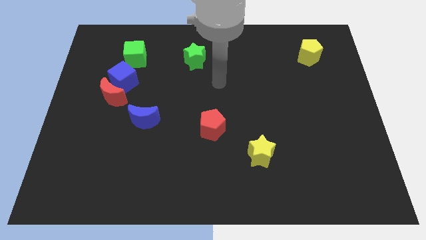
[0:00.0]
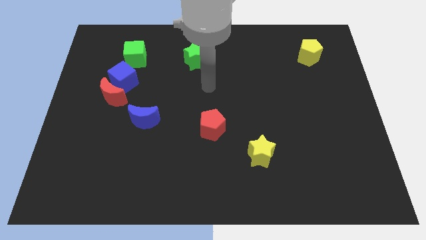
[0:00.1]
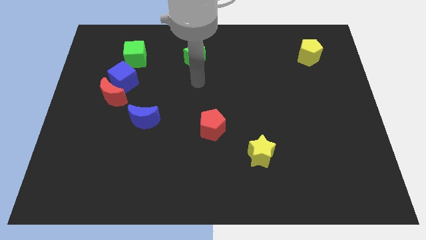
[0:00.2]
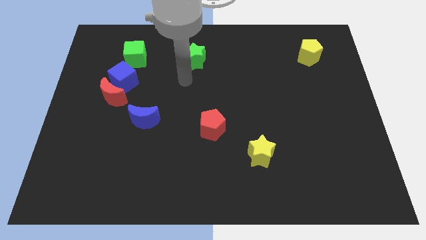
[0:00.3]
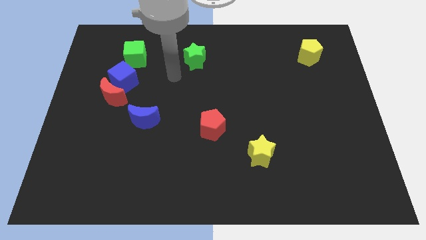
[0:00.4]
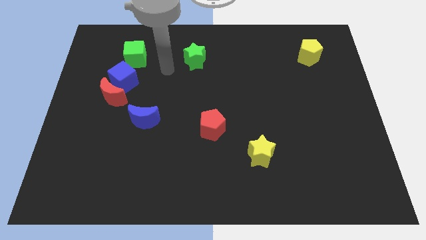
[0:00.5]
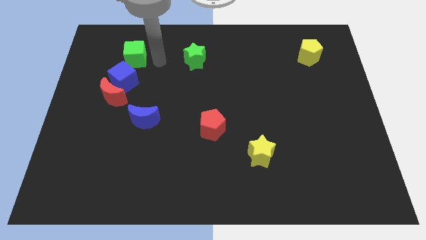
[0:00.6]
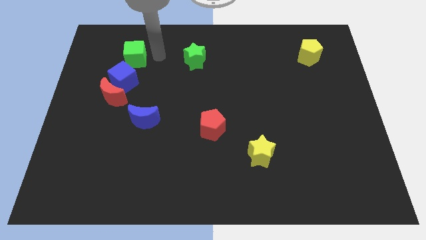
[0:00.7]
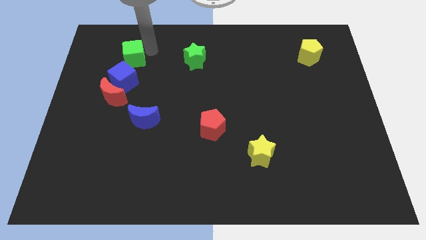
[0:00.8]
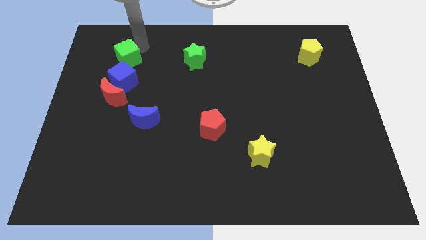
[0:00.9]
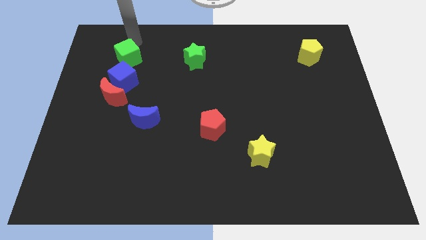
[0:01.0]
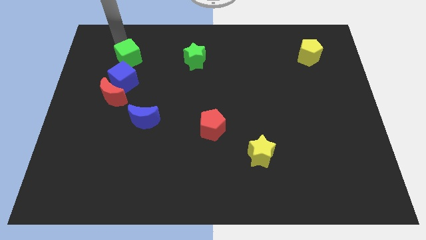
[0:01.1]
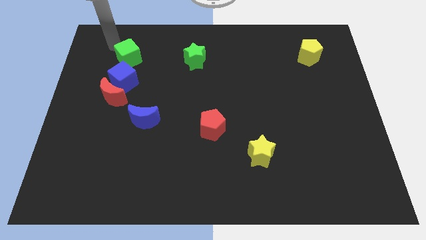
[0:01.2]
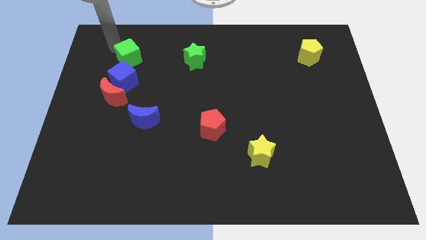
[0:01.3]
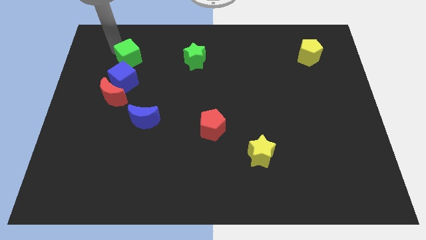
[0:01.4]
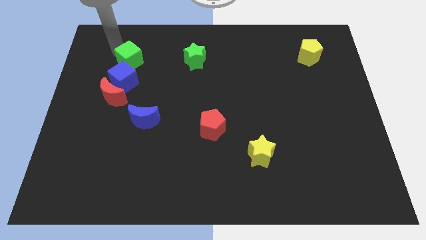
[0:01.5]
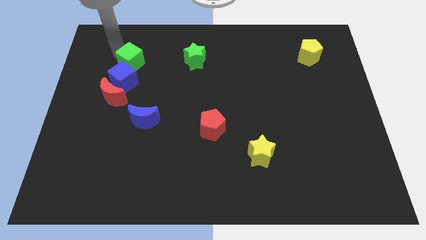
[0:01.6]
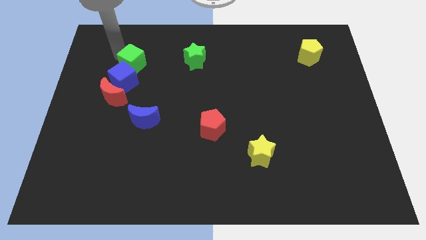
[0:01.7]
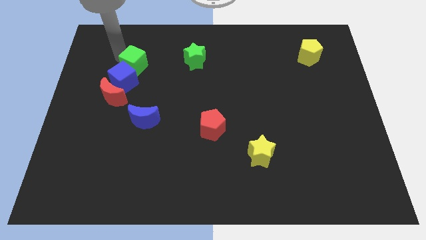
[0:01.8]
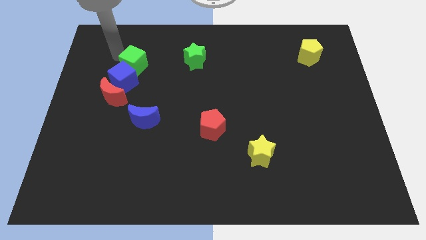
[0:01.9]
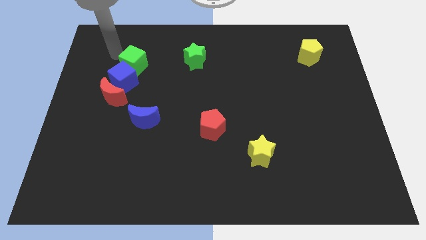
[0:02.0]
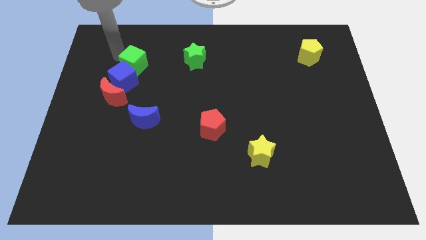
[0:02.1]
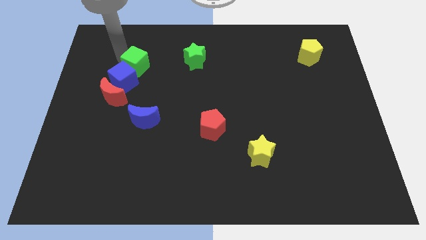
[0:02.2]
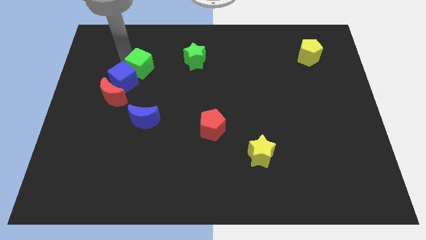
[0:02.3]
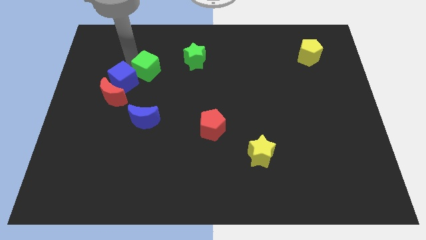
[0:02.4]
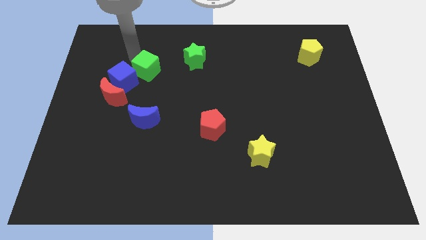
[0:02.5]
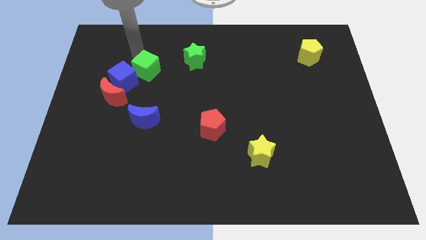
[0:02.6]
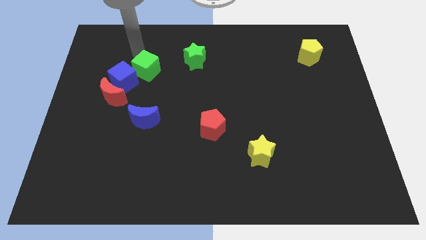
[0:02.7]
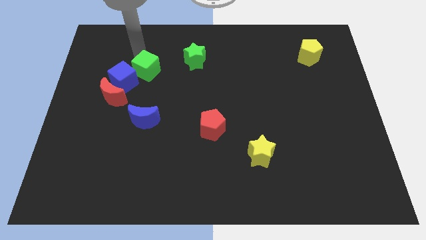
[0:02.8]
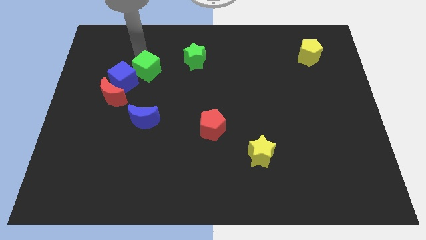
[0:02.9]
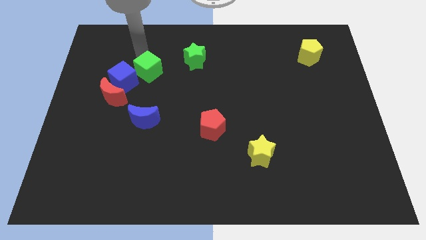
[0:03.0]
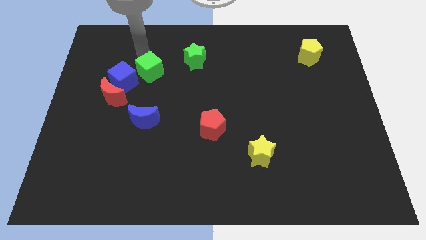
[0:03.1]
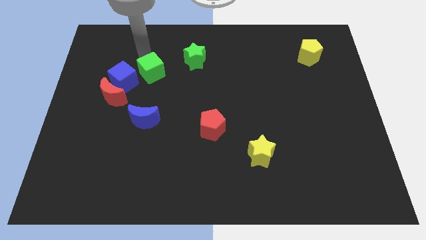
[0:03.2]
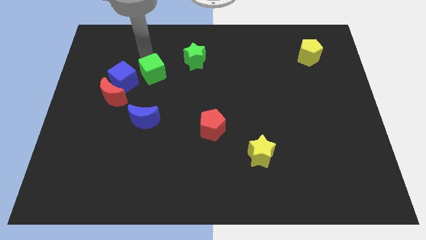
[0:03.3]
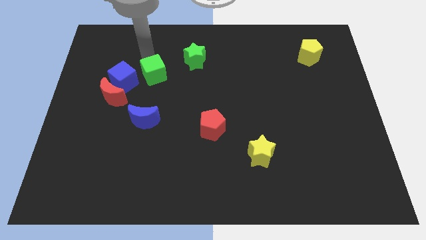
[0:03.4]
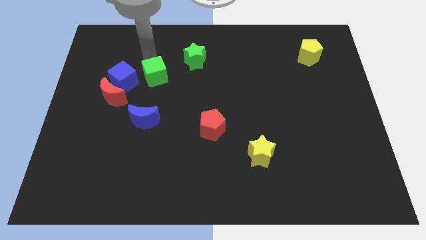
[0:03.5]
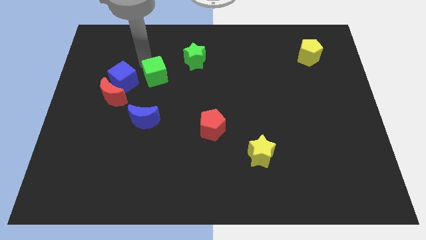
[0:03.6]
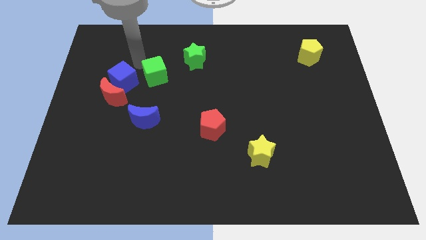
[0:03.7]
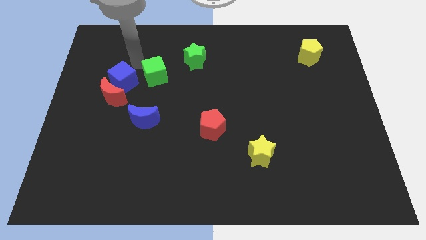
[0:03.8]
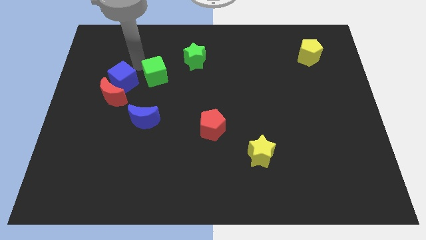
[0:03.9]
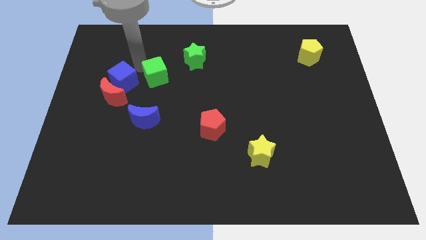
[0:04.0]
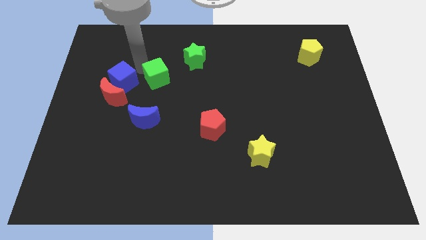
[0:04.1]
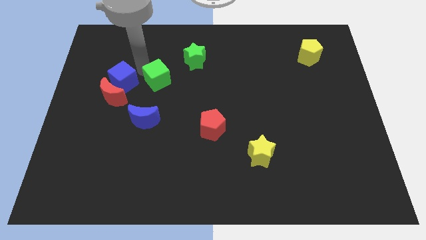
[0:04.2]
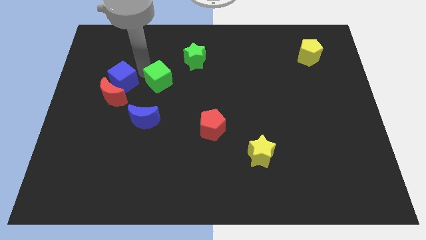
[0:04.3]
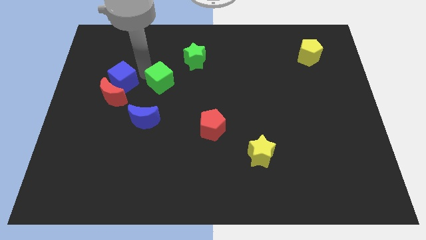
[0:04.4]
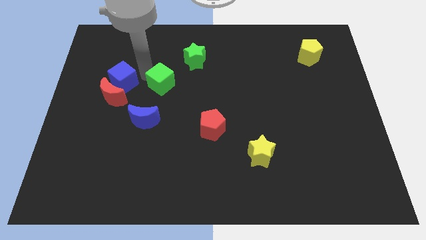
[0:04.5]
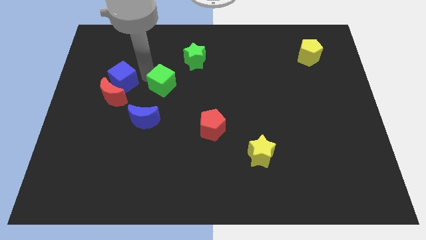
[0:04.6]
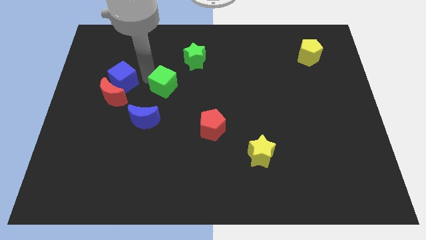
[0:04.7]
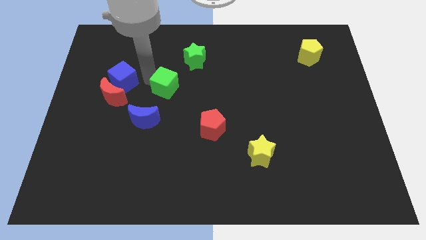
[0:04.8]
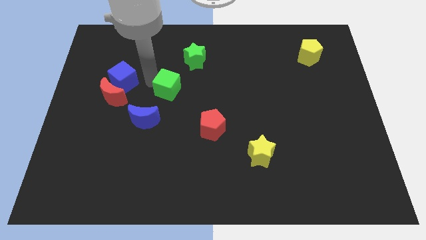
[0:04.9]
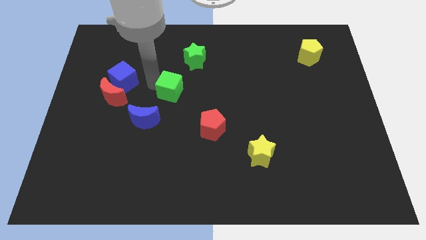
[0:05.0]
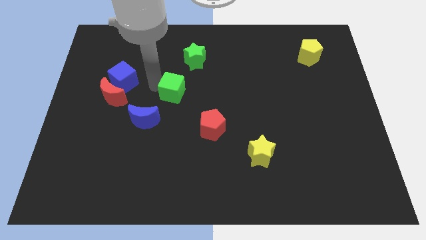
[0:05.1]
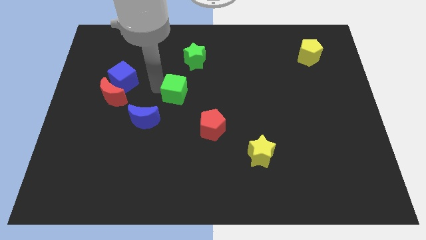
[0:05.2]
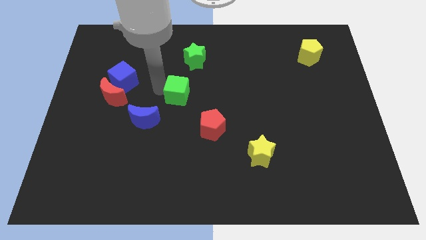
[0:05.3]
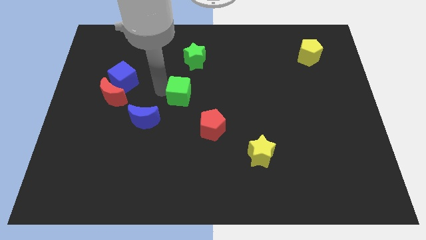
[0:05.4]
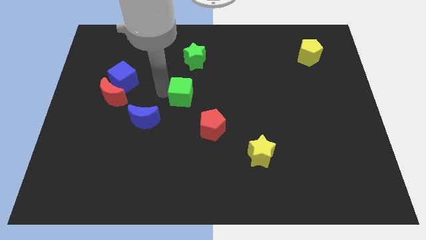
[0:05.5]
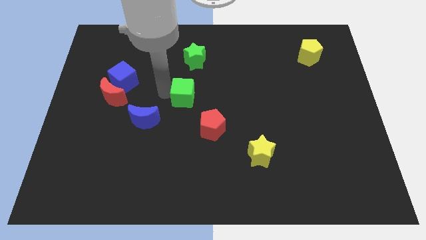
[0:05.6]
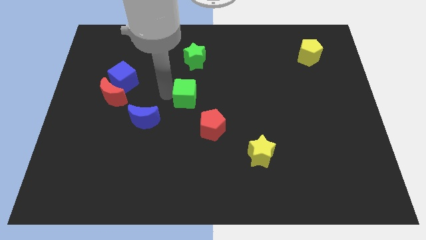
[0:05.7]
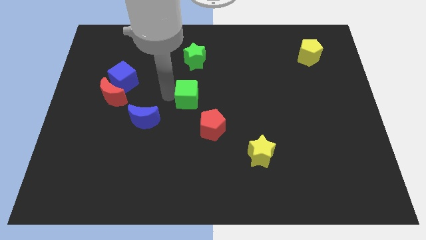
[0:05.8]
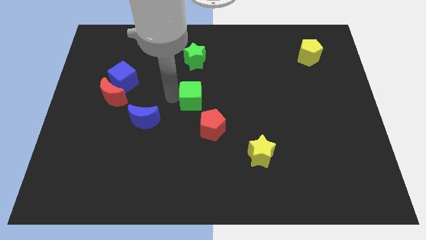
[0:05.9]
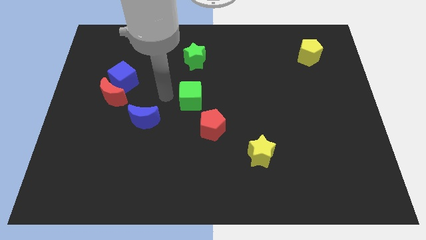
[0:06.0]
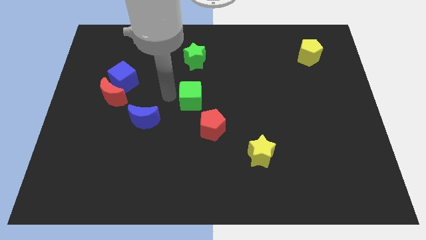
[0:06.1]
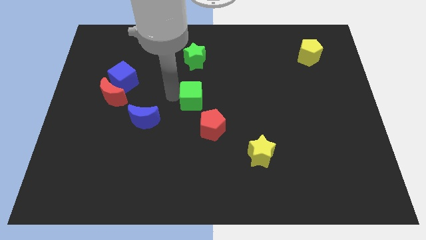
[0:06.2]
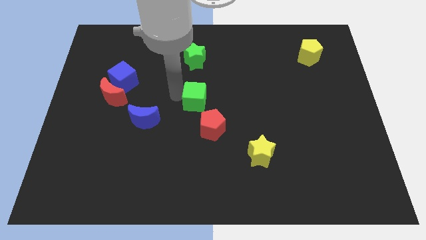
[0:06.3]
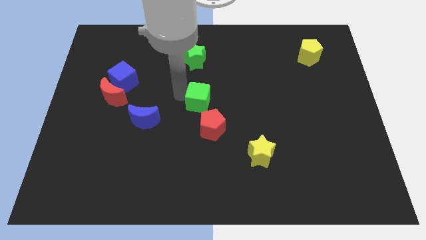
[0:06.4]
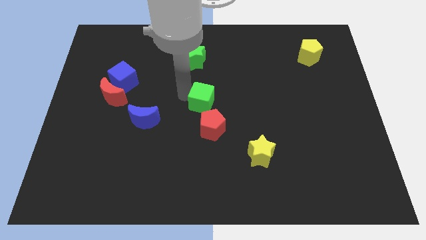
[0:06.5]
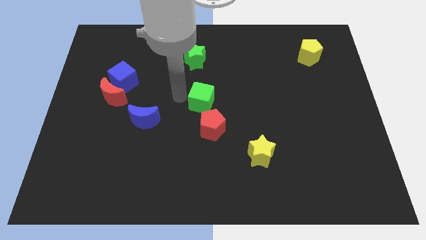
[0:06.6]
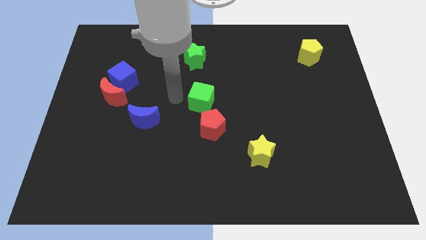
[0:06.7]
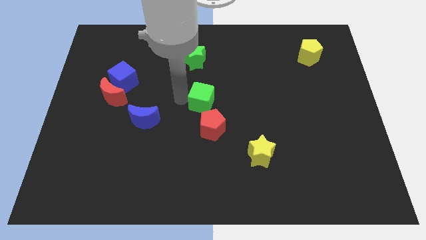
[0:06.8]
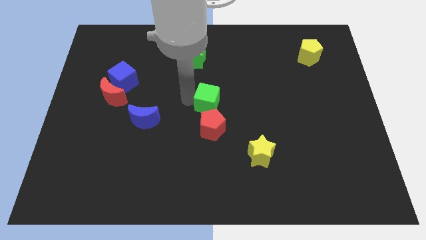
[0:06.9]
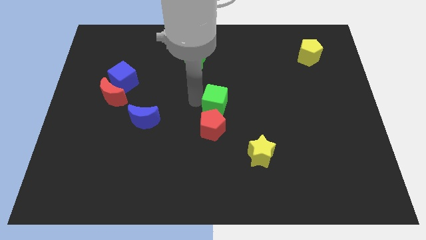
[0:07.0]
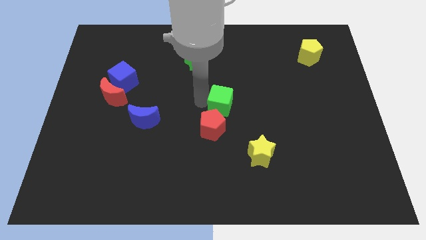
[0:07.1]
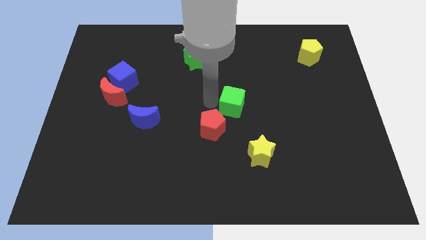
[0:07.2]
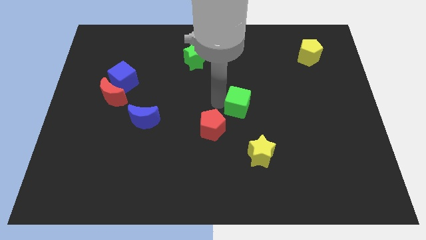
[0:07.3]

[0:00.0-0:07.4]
move the green cube to the top of the yellow star
